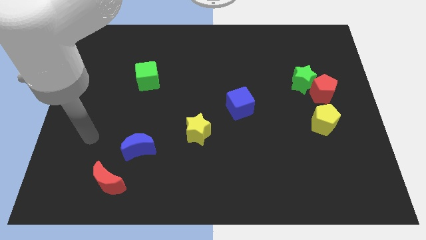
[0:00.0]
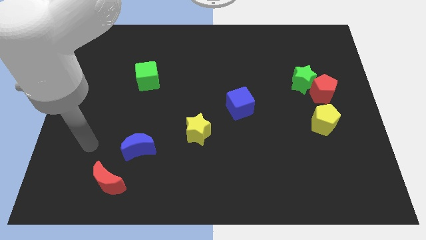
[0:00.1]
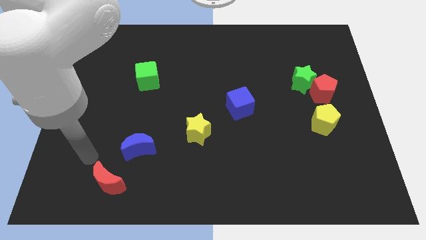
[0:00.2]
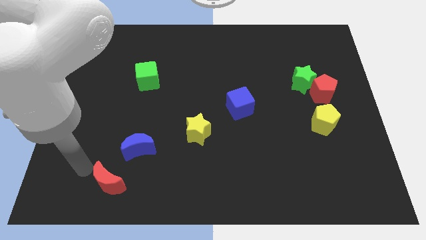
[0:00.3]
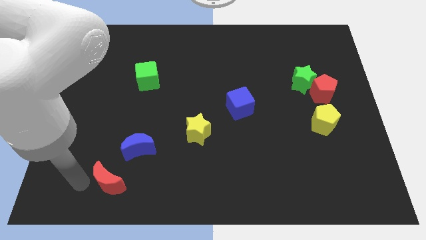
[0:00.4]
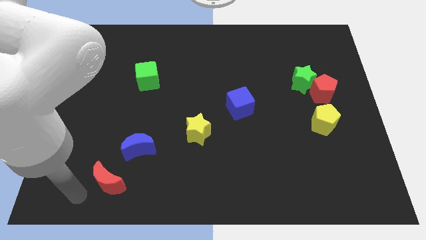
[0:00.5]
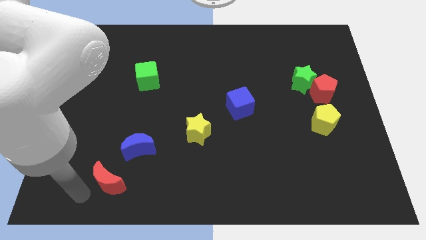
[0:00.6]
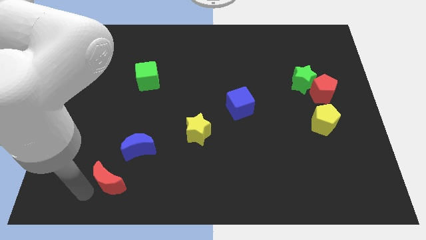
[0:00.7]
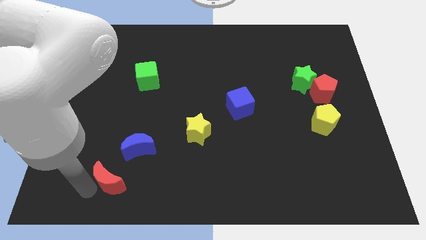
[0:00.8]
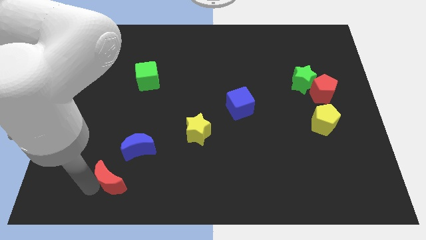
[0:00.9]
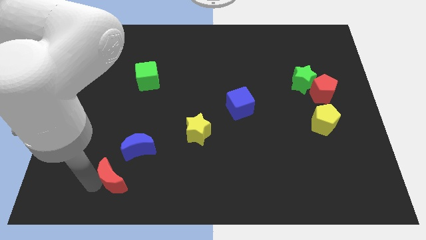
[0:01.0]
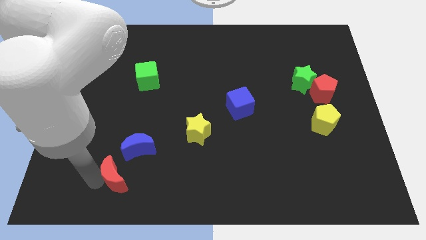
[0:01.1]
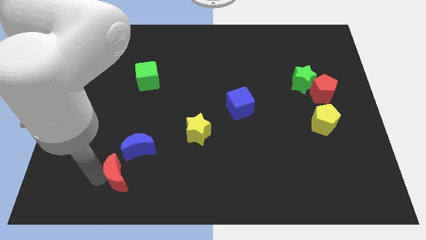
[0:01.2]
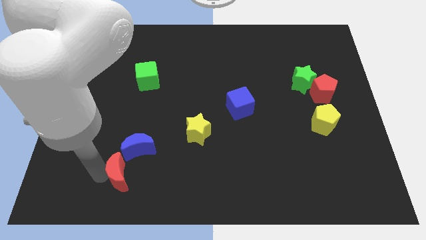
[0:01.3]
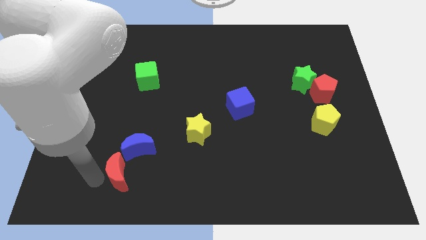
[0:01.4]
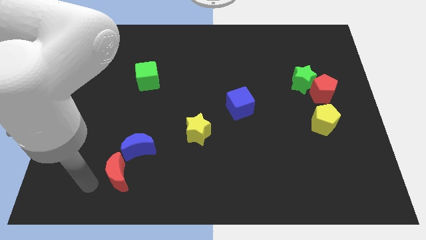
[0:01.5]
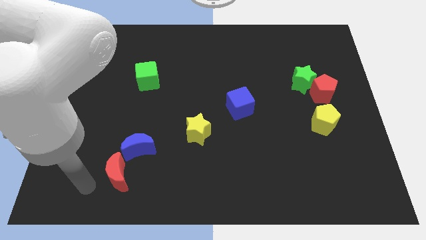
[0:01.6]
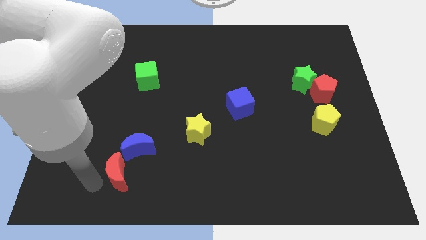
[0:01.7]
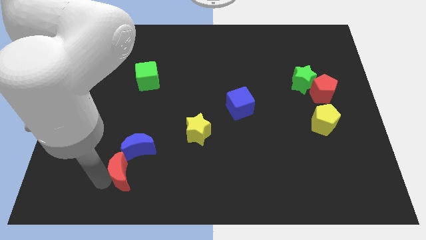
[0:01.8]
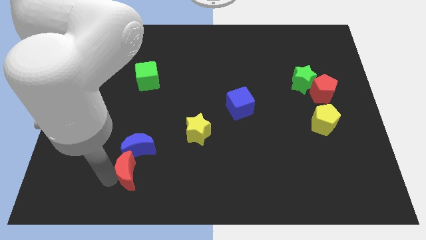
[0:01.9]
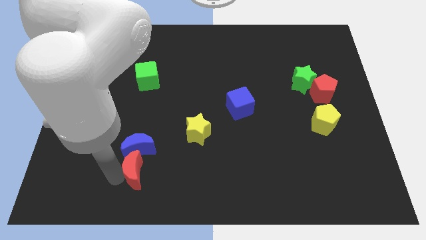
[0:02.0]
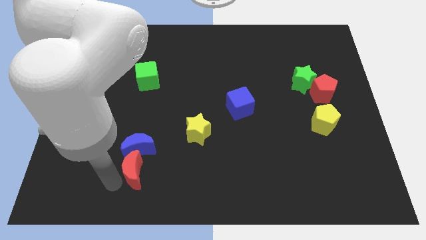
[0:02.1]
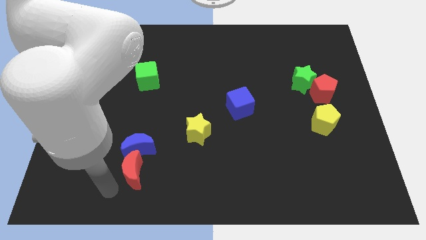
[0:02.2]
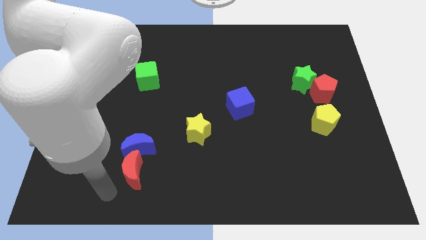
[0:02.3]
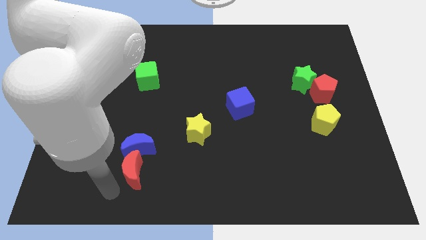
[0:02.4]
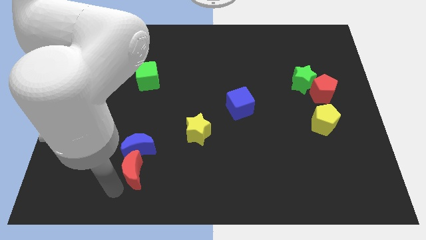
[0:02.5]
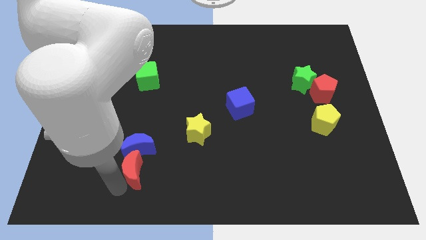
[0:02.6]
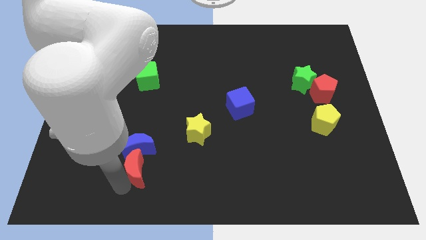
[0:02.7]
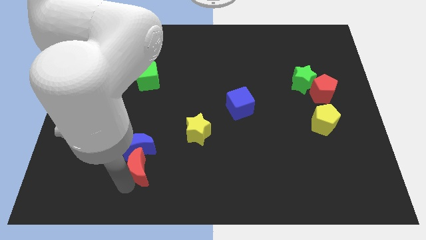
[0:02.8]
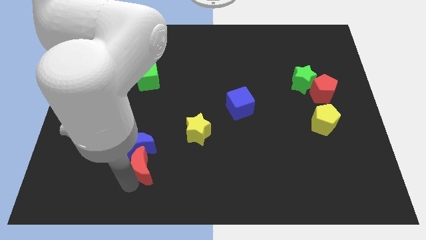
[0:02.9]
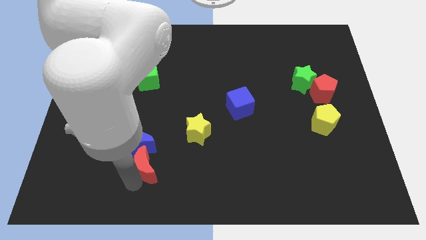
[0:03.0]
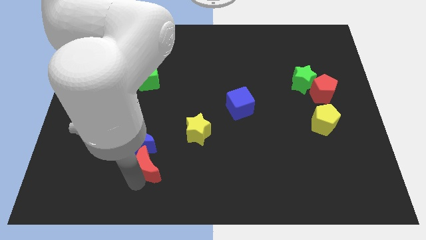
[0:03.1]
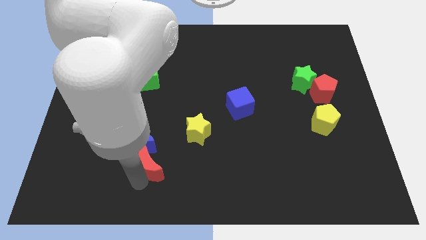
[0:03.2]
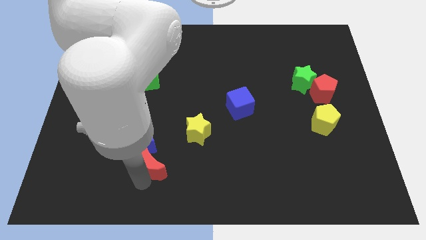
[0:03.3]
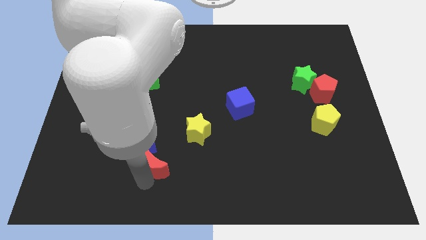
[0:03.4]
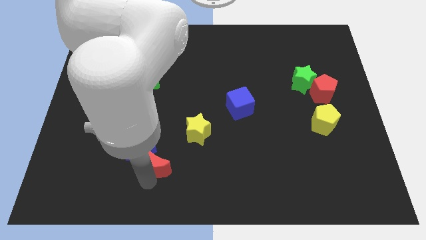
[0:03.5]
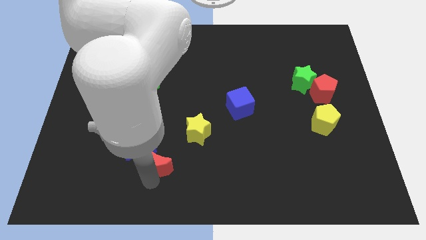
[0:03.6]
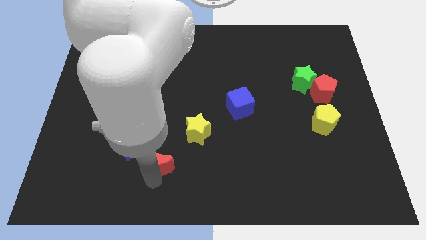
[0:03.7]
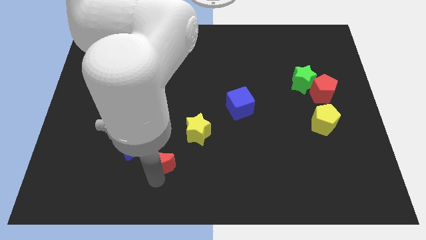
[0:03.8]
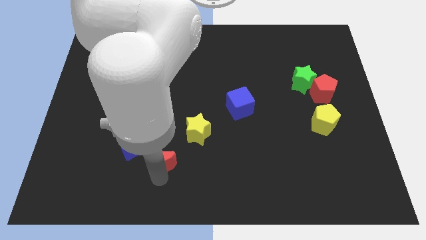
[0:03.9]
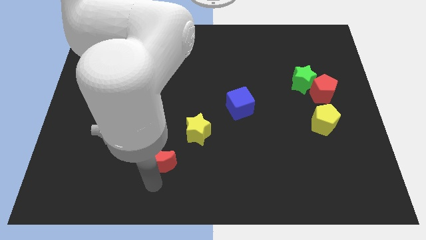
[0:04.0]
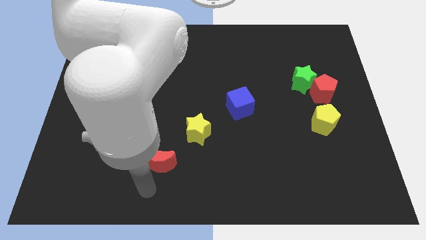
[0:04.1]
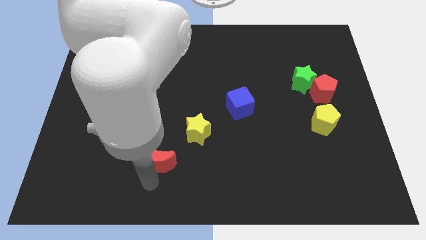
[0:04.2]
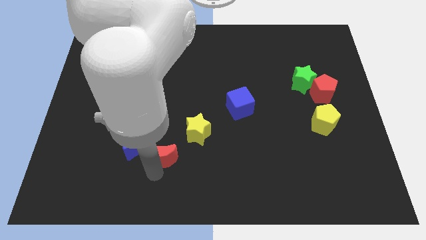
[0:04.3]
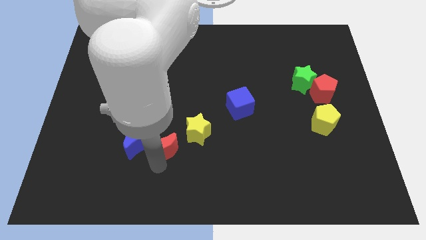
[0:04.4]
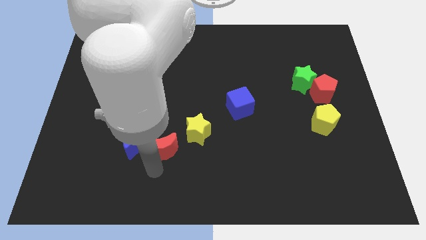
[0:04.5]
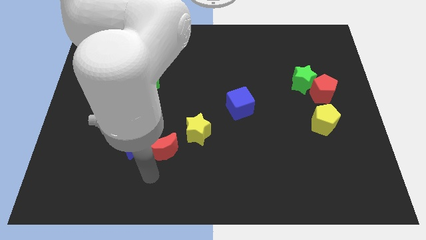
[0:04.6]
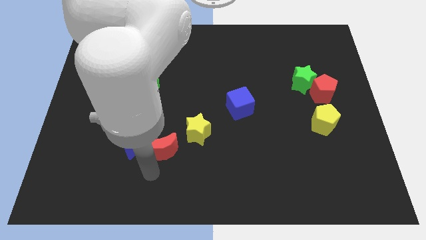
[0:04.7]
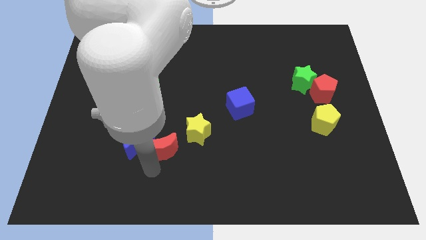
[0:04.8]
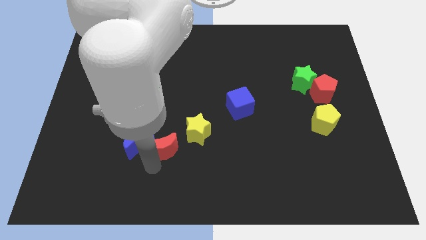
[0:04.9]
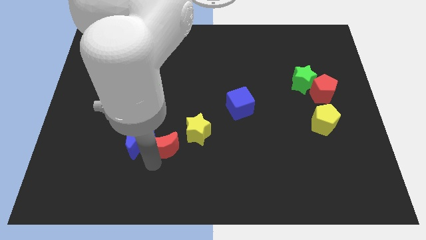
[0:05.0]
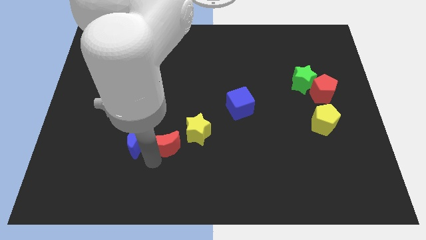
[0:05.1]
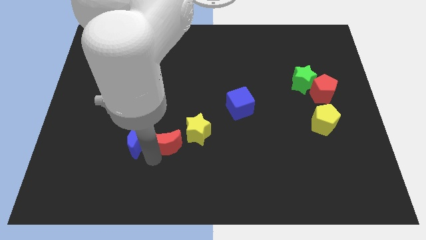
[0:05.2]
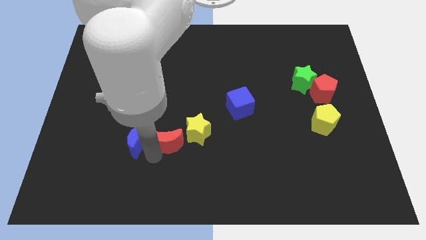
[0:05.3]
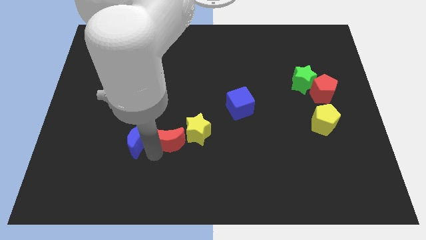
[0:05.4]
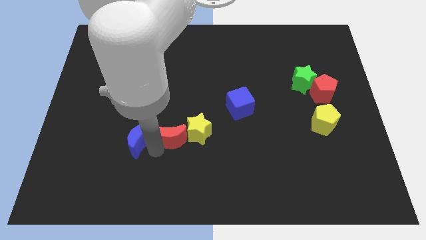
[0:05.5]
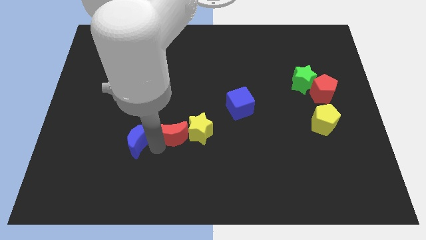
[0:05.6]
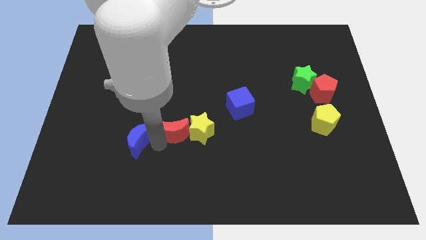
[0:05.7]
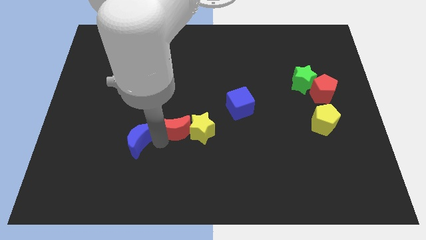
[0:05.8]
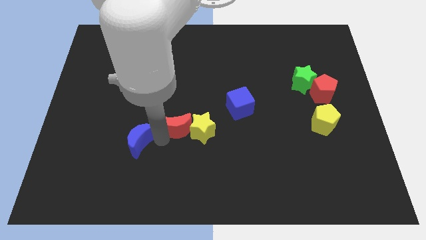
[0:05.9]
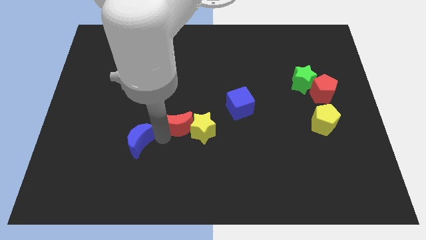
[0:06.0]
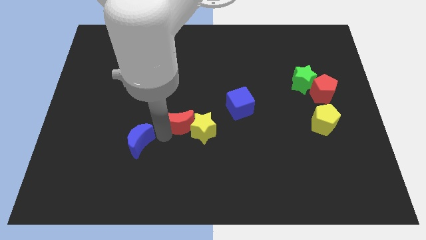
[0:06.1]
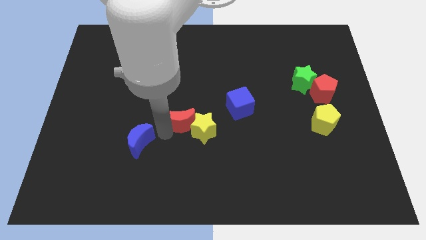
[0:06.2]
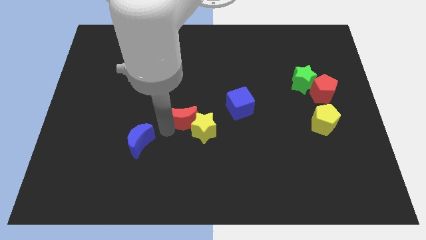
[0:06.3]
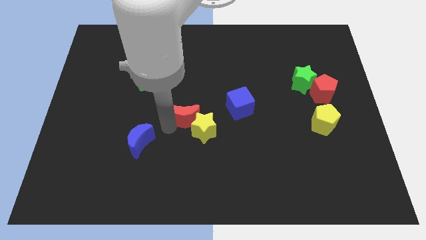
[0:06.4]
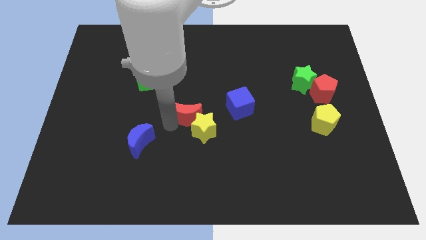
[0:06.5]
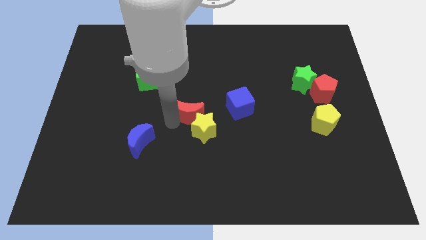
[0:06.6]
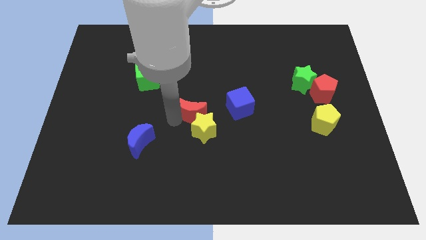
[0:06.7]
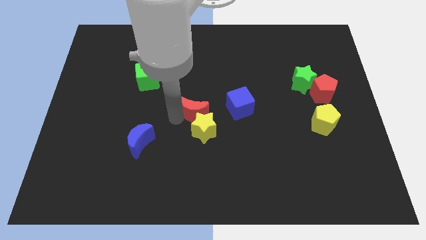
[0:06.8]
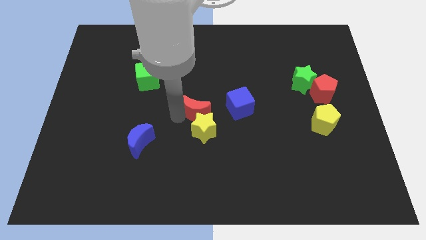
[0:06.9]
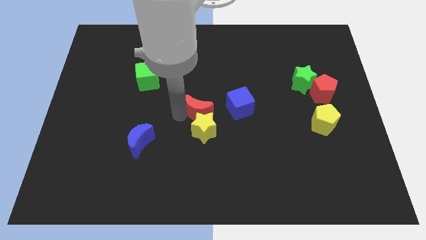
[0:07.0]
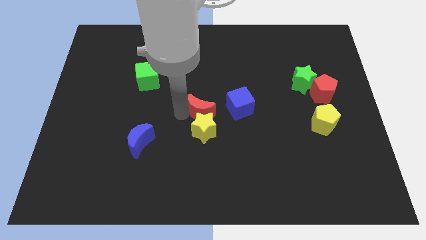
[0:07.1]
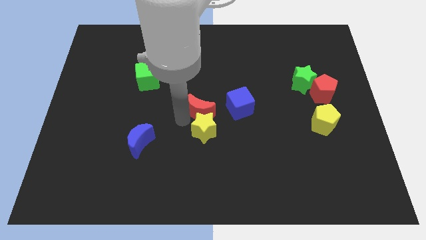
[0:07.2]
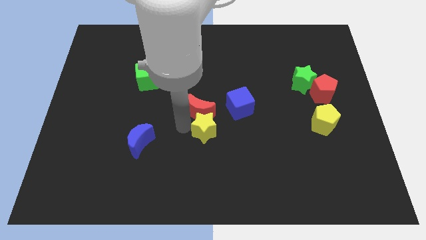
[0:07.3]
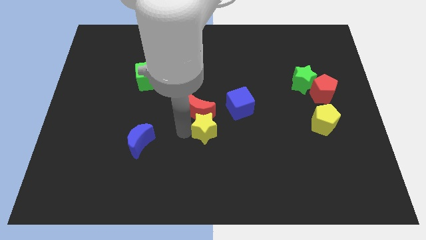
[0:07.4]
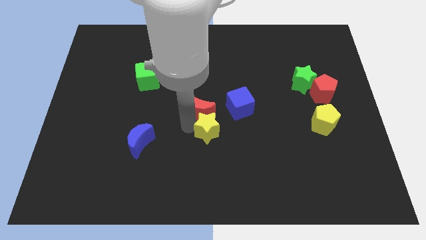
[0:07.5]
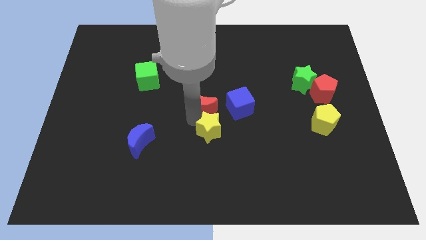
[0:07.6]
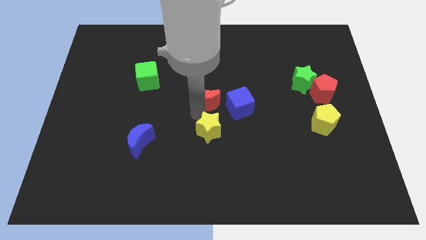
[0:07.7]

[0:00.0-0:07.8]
put the red moon diagonally up and to the left of the blue cube
